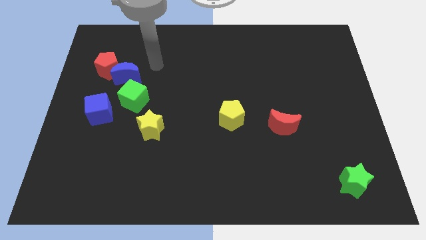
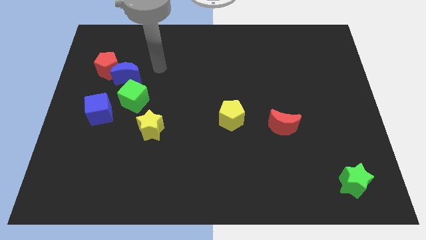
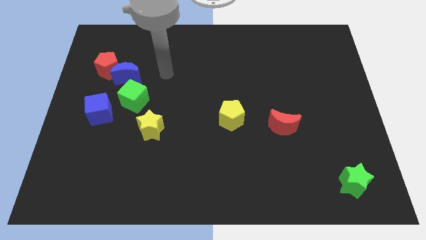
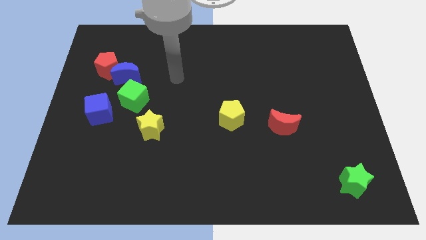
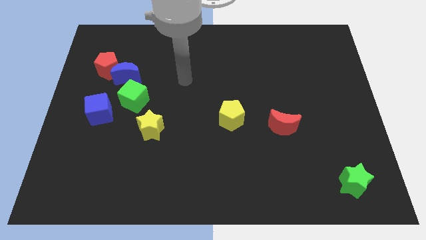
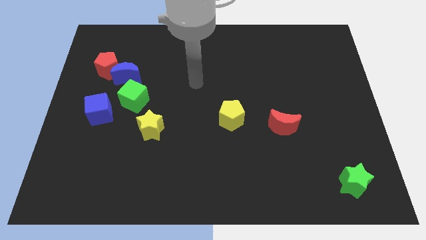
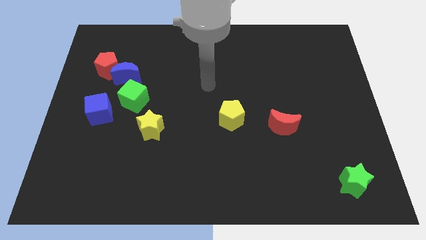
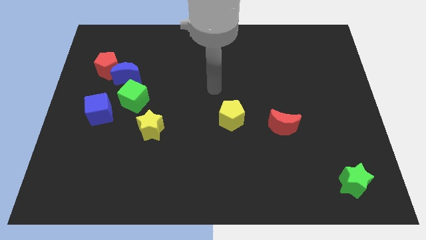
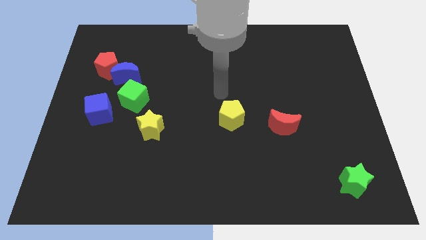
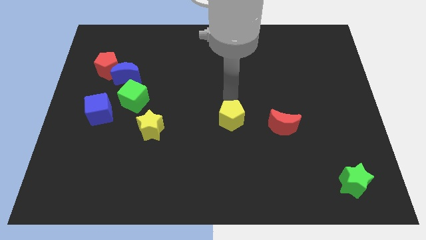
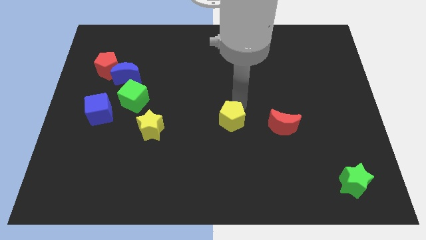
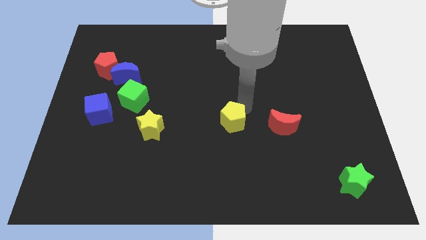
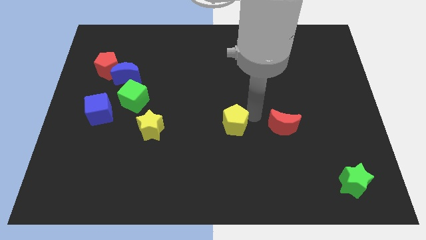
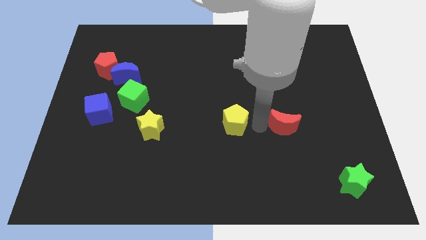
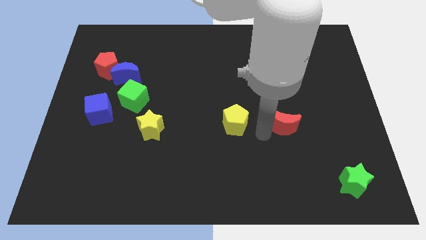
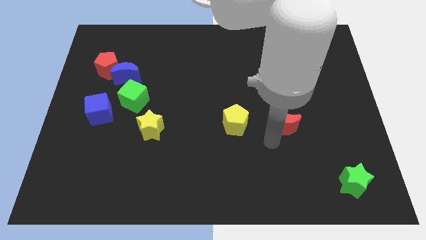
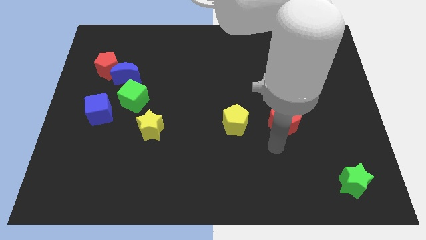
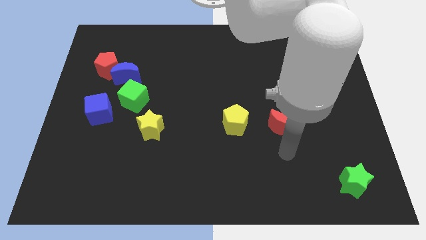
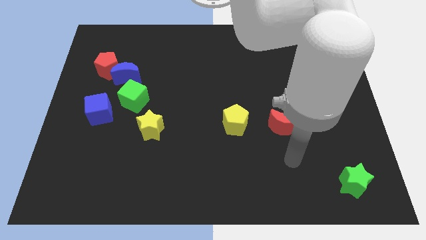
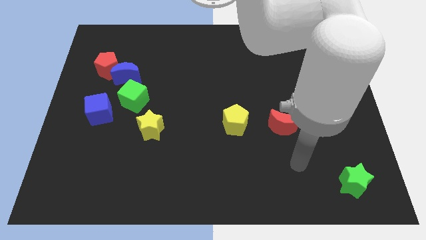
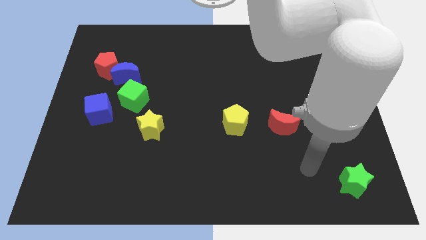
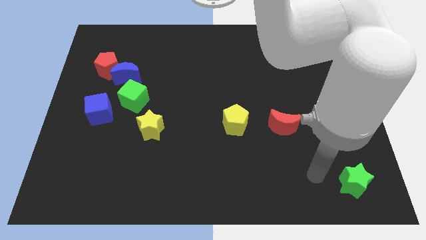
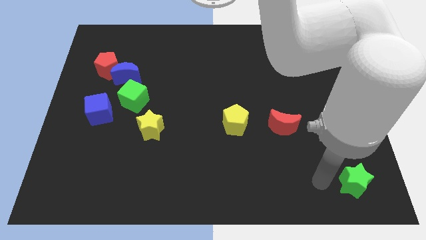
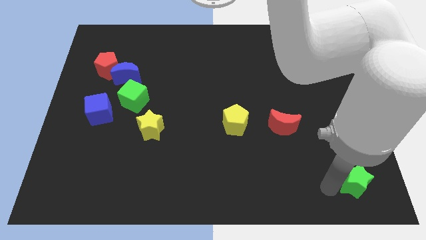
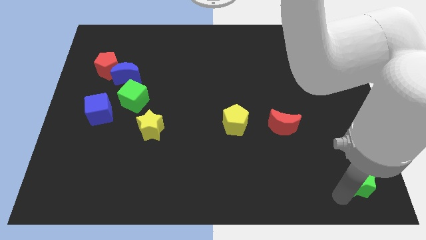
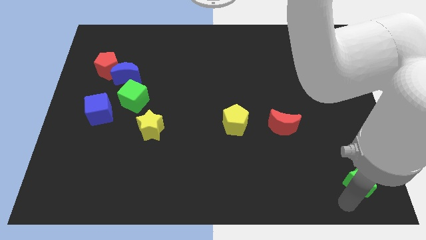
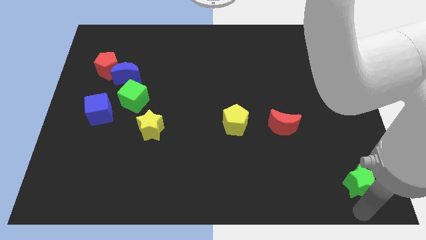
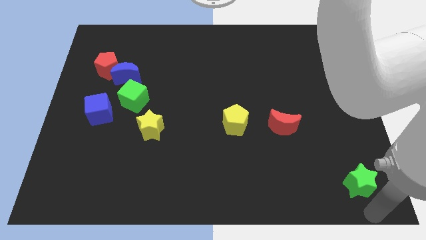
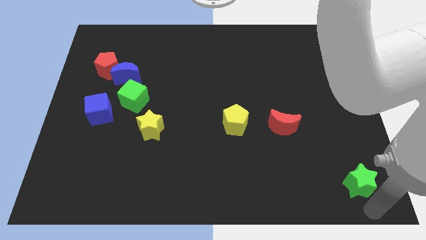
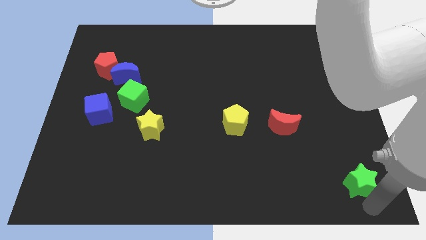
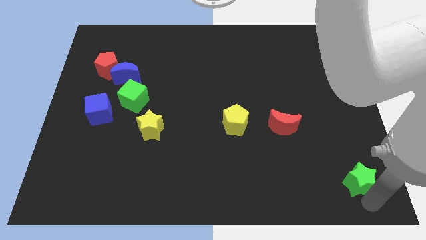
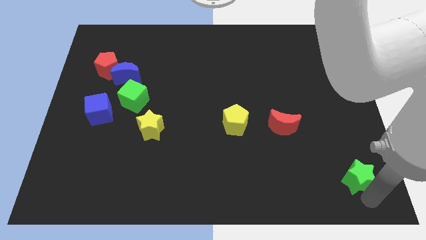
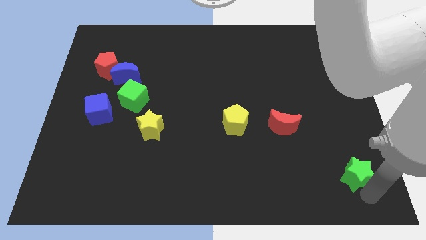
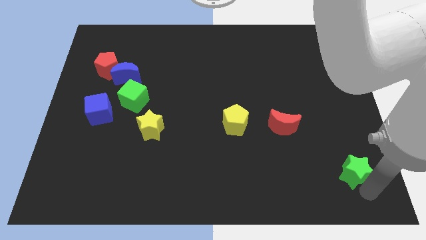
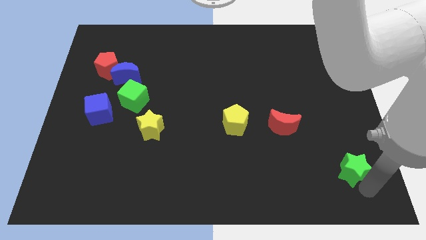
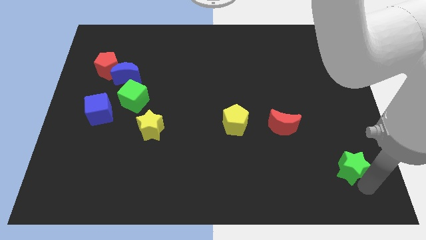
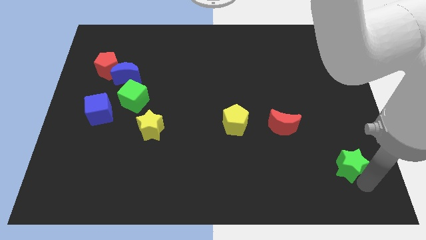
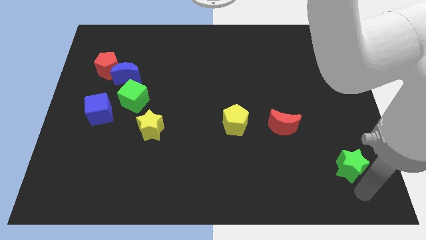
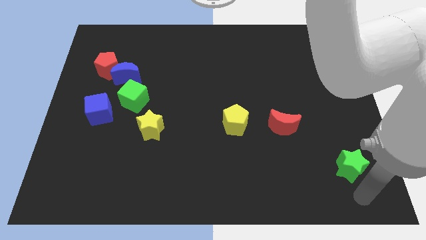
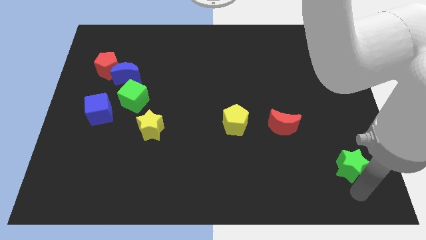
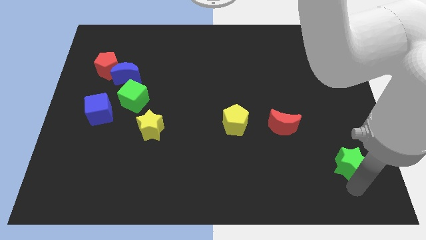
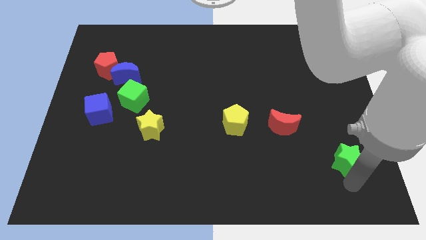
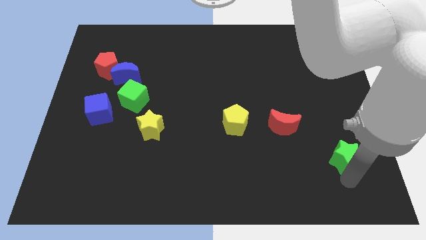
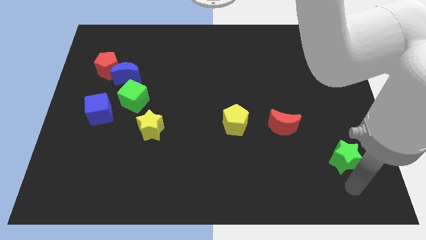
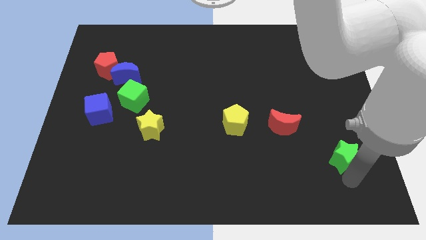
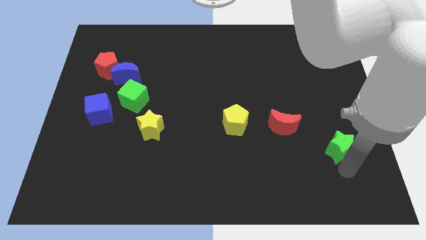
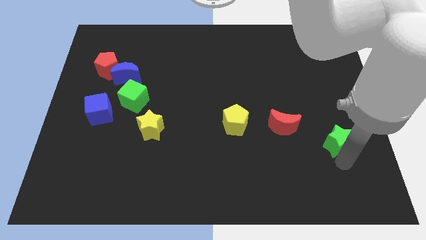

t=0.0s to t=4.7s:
push the green star just right of the red moon

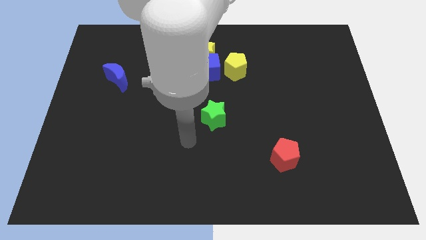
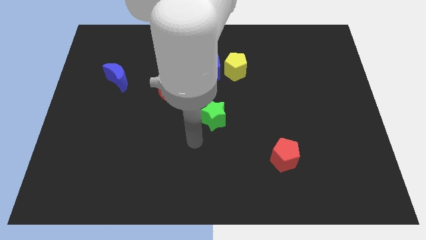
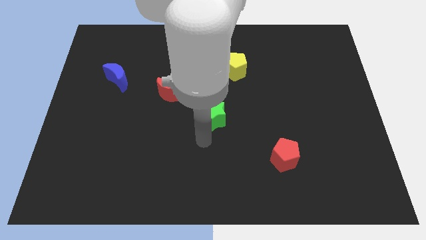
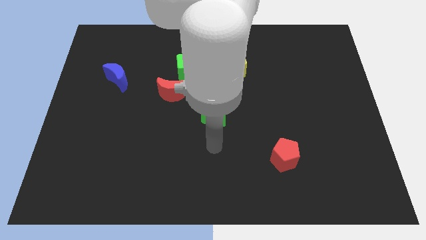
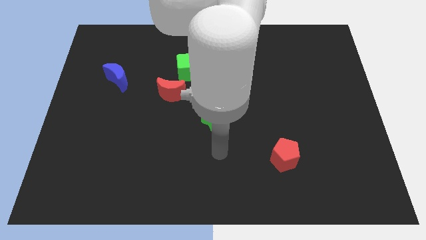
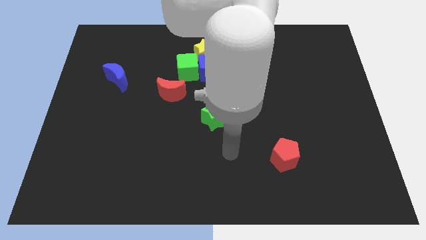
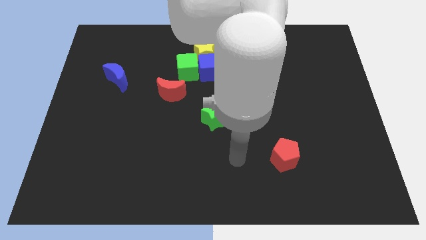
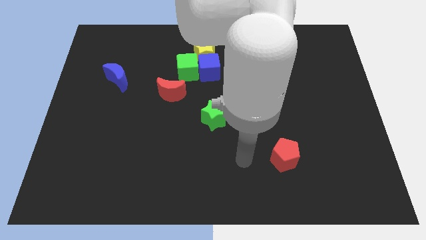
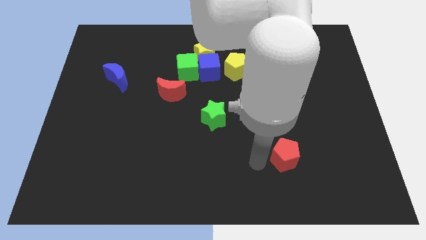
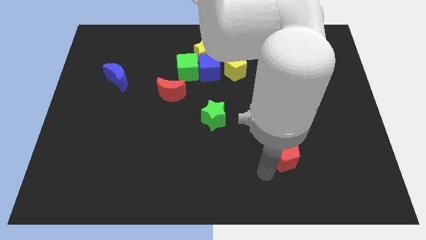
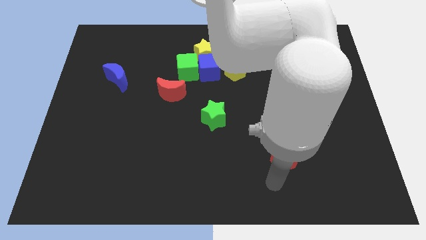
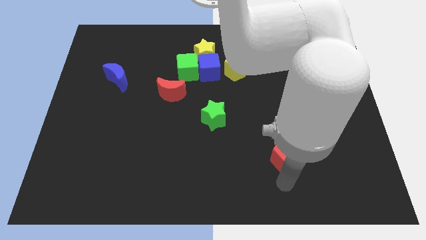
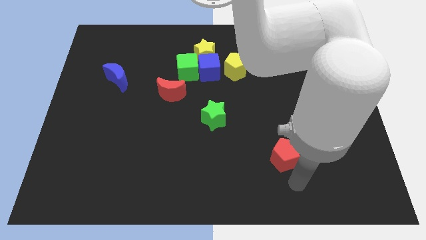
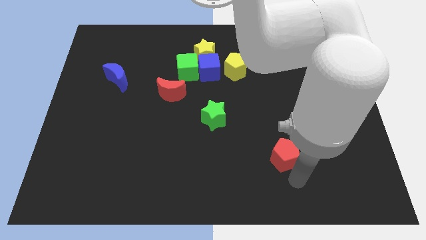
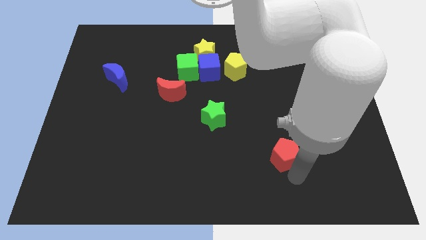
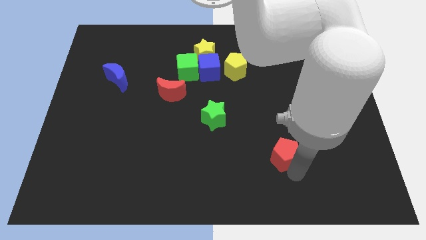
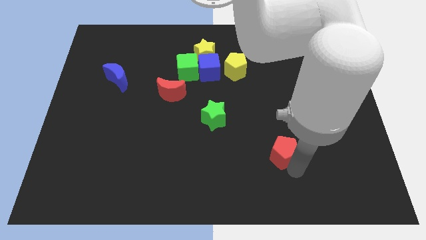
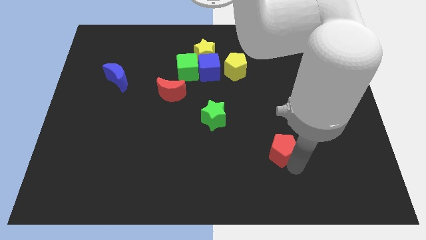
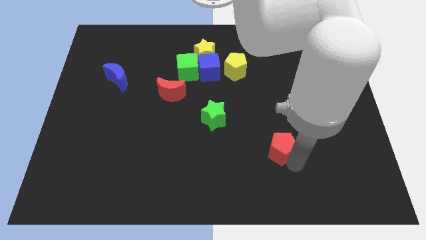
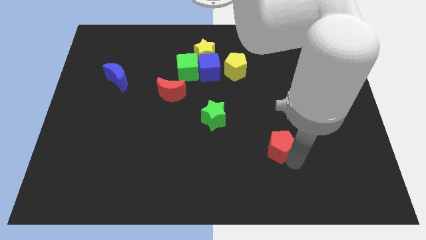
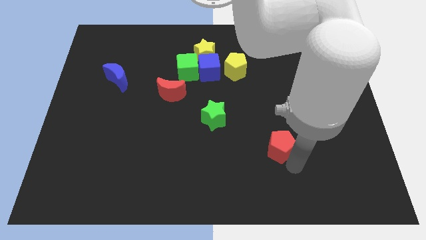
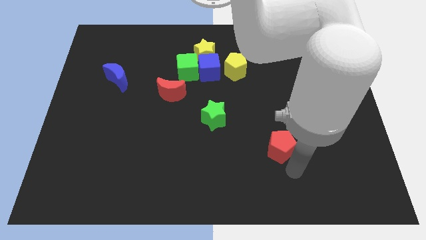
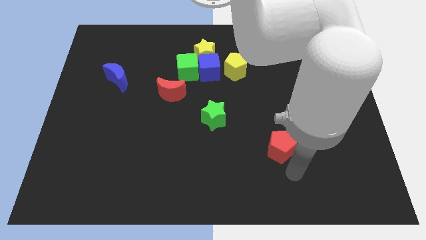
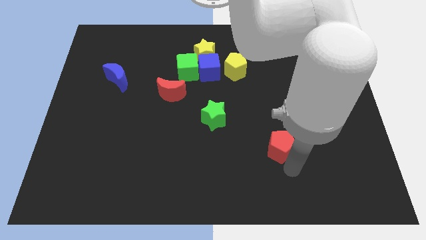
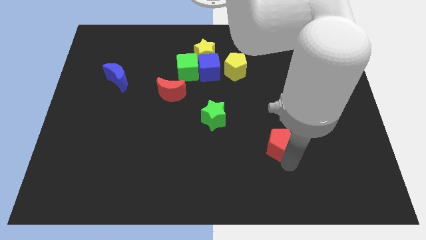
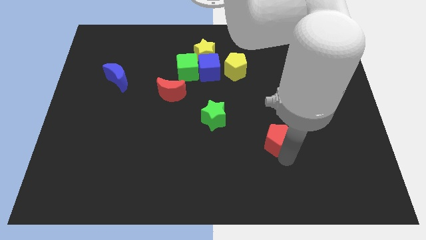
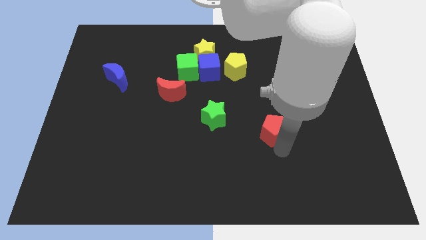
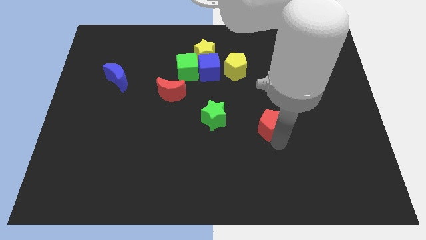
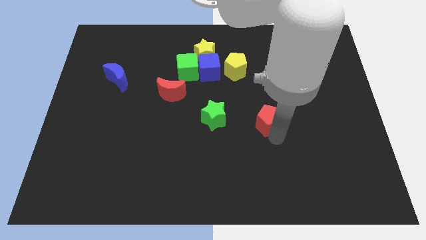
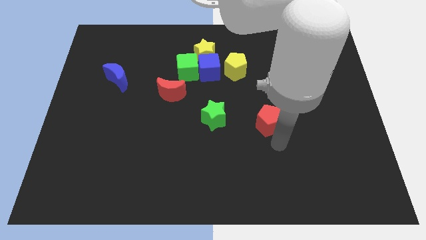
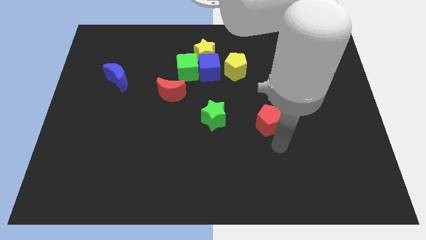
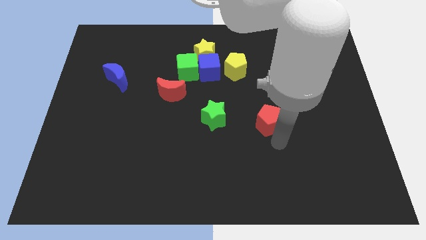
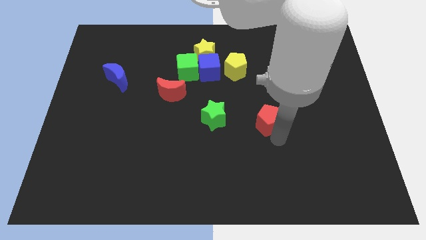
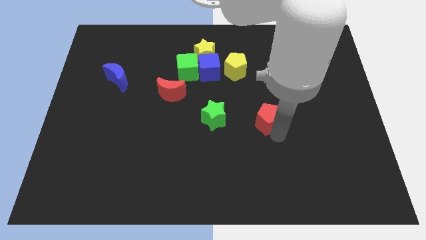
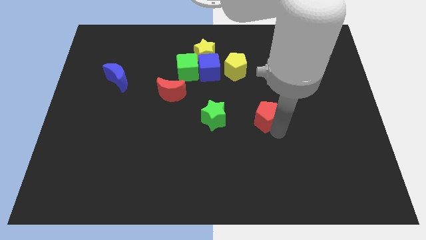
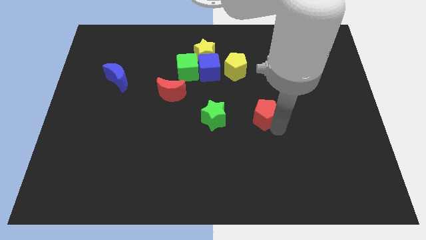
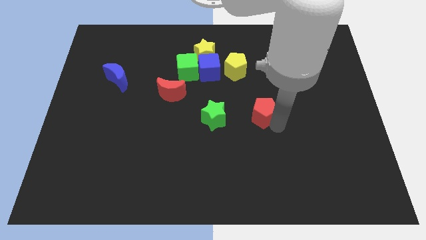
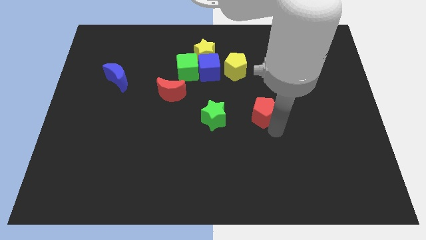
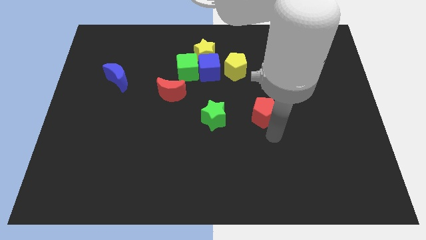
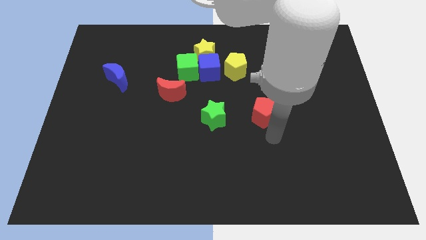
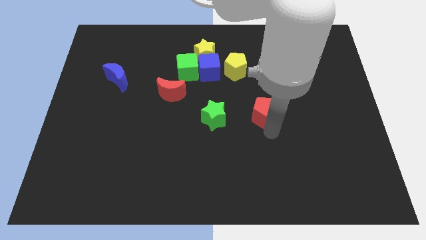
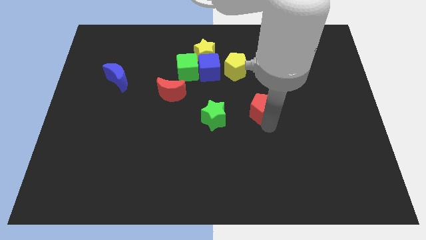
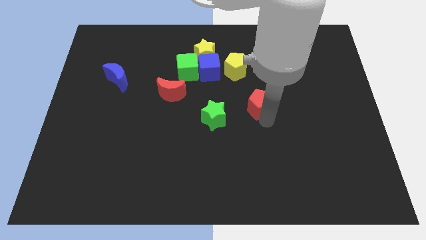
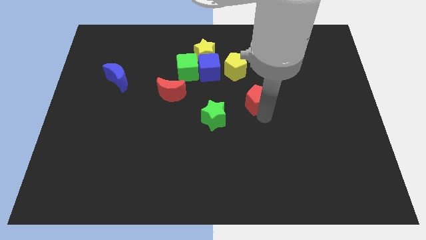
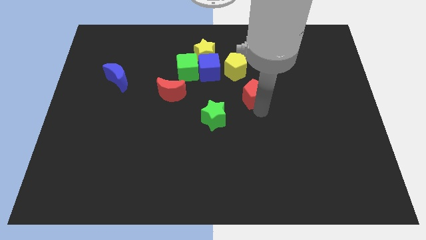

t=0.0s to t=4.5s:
push the red pentagon to the bottom right of the yellow pentagon
